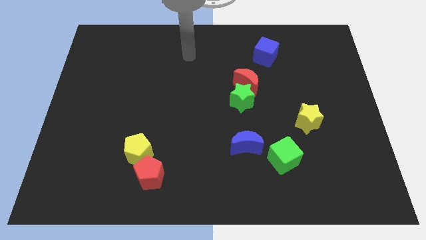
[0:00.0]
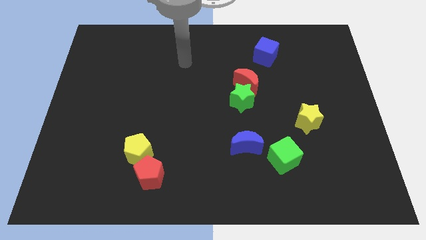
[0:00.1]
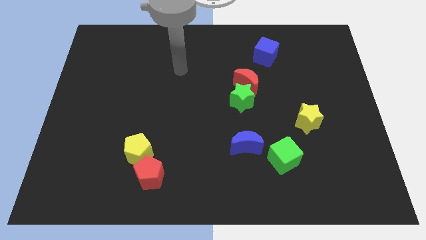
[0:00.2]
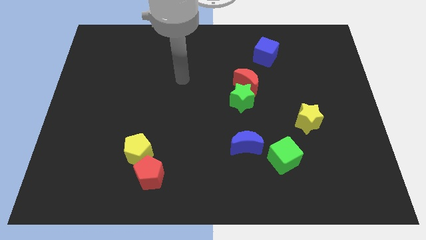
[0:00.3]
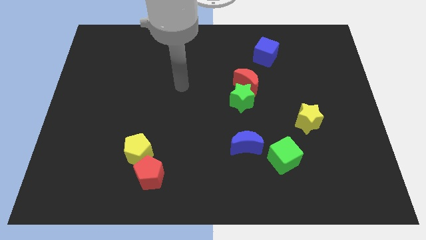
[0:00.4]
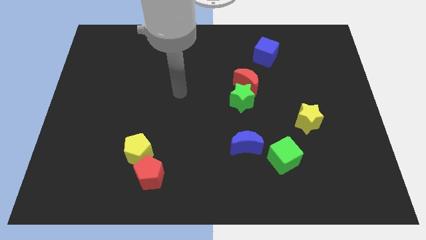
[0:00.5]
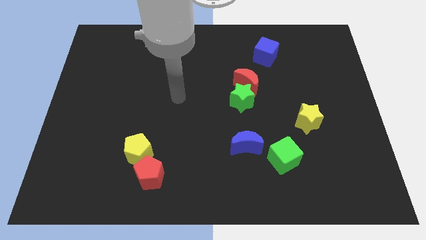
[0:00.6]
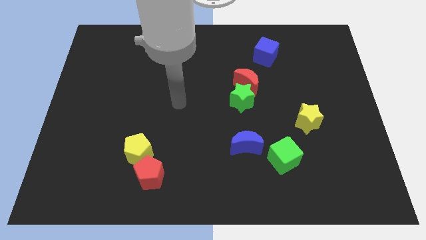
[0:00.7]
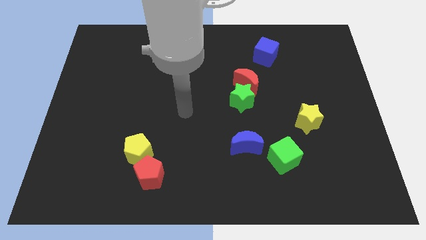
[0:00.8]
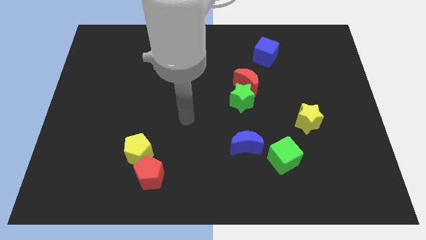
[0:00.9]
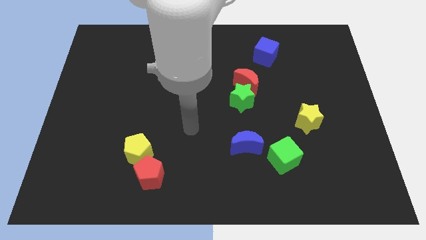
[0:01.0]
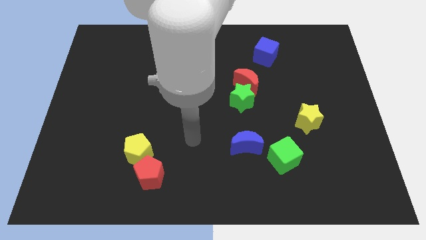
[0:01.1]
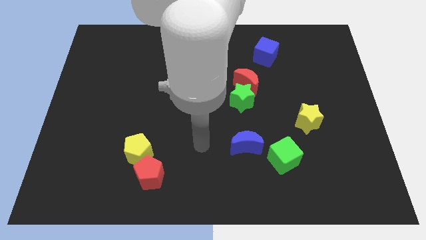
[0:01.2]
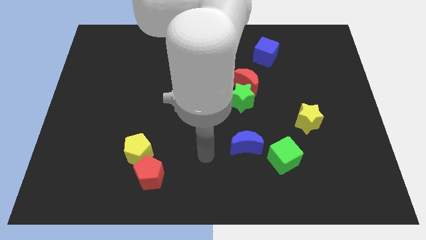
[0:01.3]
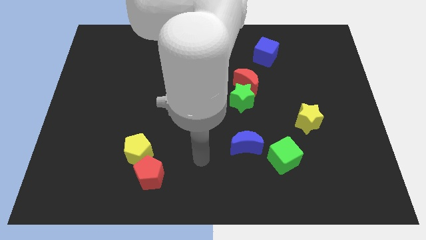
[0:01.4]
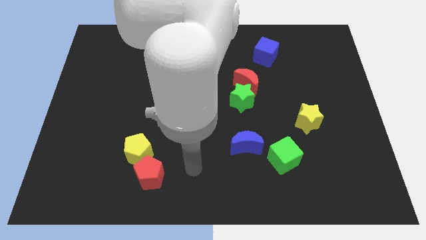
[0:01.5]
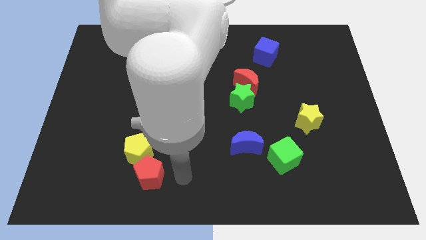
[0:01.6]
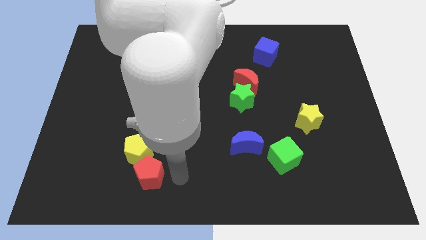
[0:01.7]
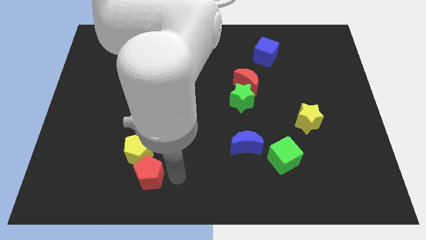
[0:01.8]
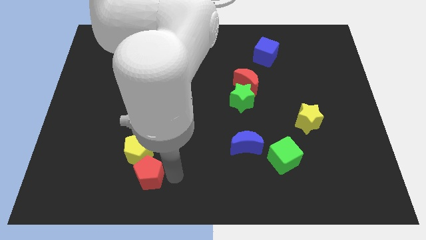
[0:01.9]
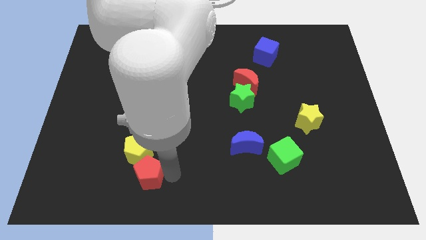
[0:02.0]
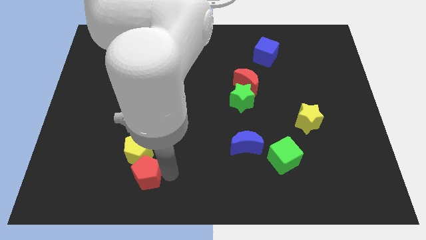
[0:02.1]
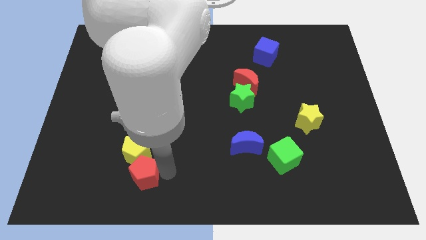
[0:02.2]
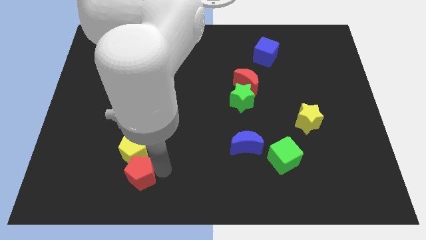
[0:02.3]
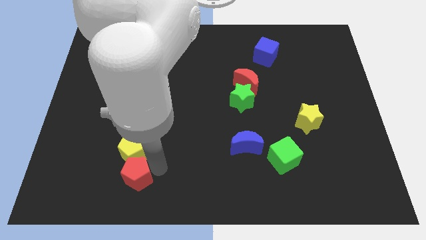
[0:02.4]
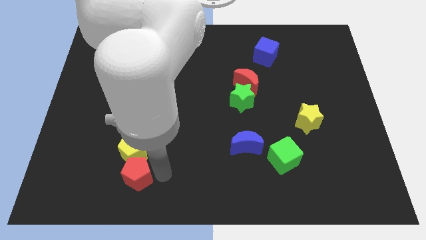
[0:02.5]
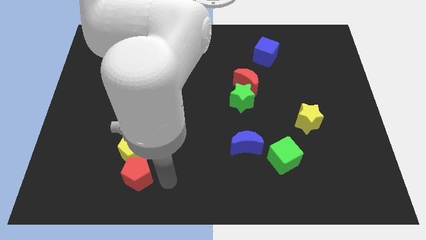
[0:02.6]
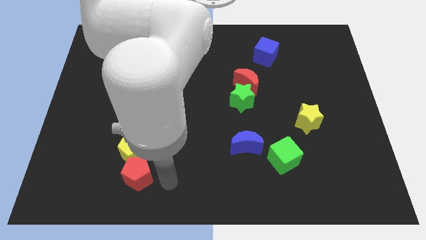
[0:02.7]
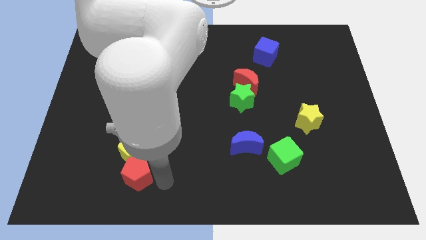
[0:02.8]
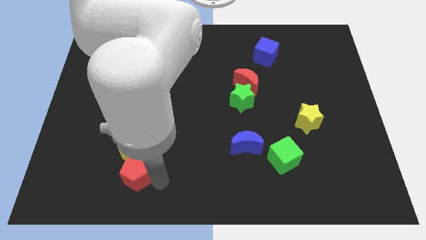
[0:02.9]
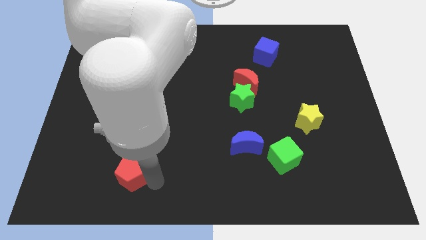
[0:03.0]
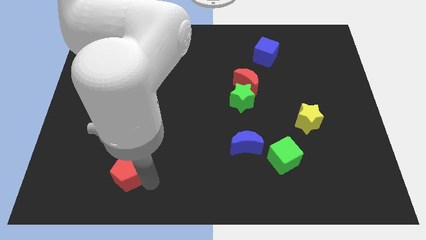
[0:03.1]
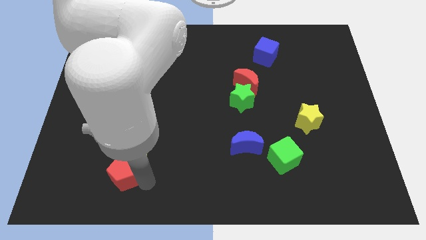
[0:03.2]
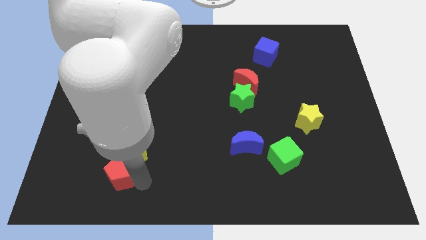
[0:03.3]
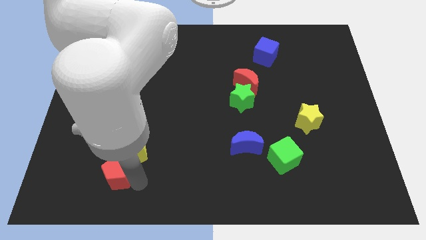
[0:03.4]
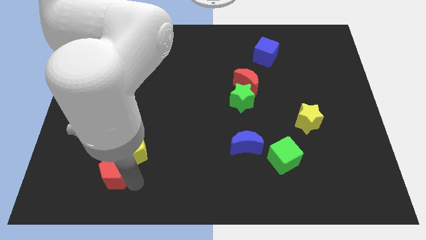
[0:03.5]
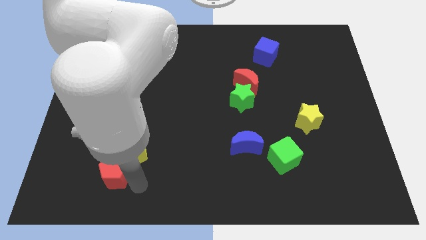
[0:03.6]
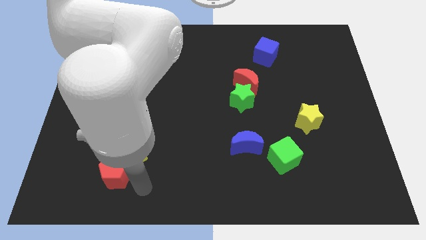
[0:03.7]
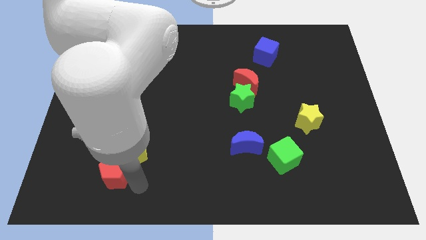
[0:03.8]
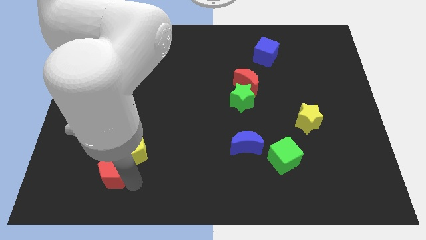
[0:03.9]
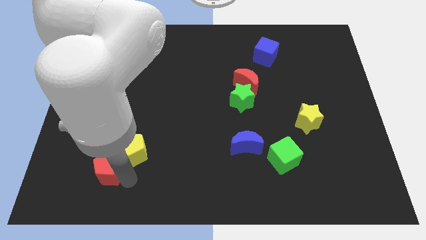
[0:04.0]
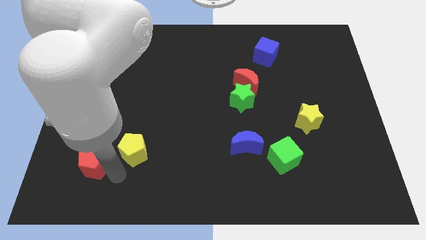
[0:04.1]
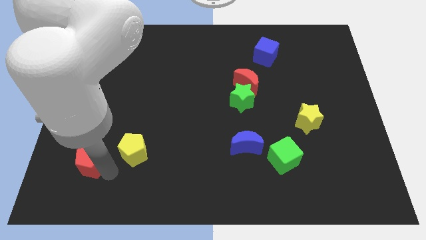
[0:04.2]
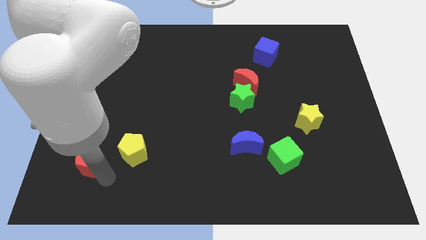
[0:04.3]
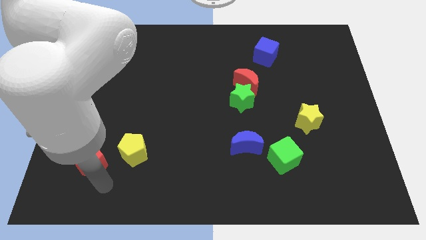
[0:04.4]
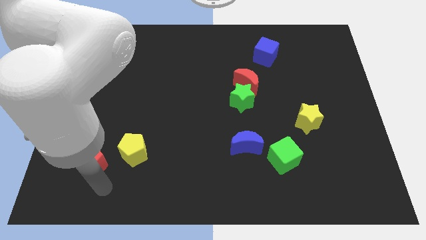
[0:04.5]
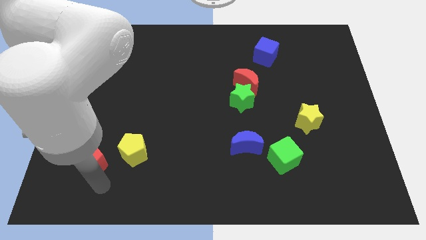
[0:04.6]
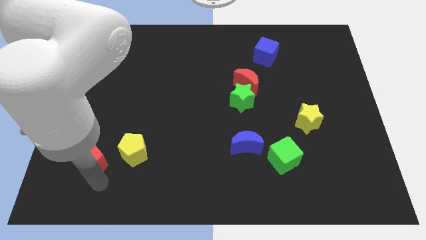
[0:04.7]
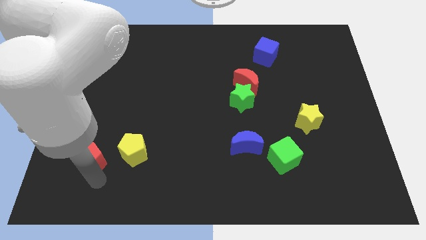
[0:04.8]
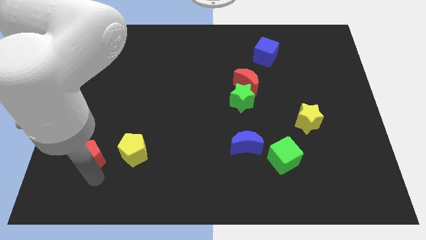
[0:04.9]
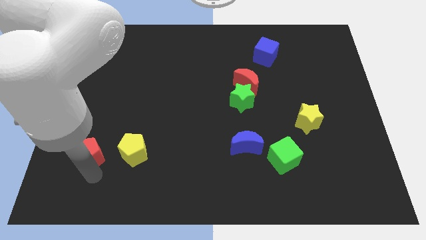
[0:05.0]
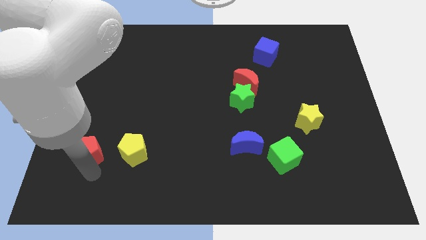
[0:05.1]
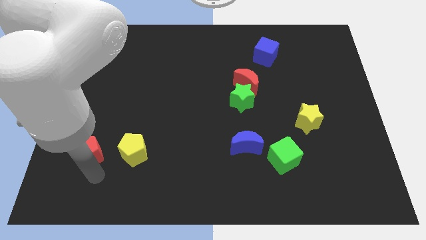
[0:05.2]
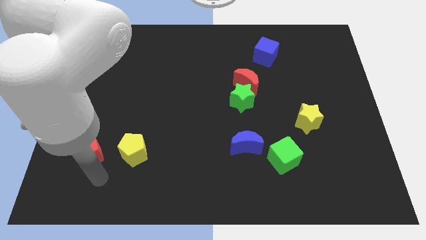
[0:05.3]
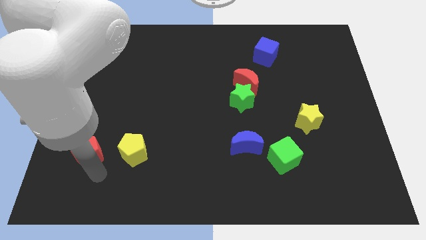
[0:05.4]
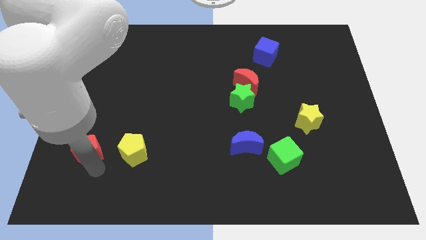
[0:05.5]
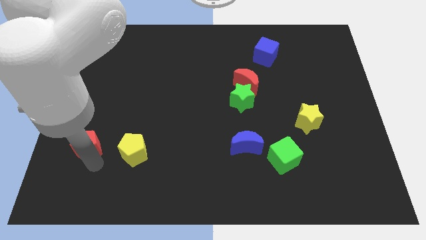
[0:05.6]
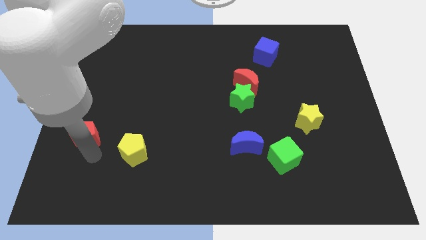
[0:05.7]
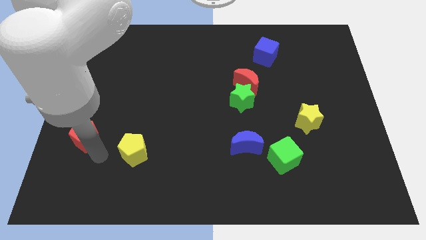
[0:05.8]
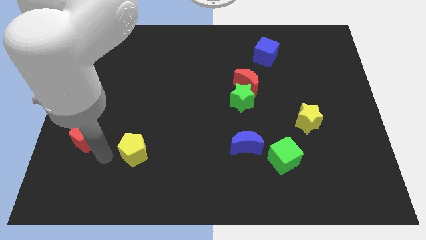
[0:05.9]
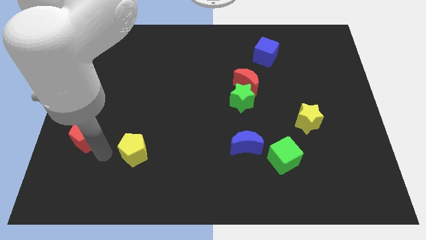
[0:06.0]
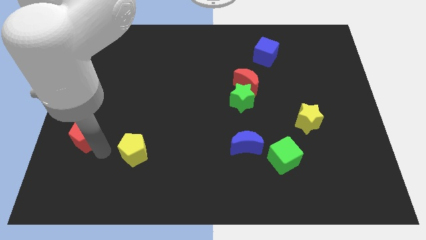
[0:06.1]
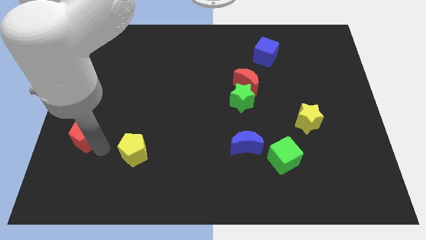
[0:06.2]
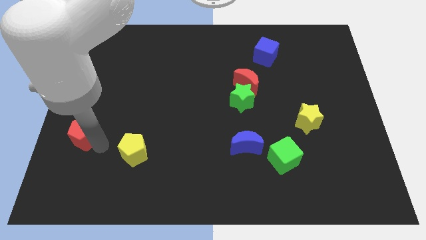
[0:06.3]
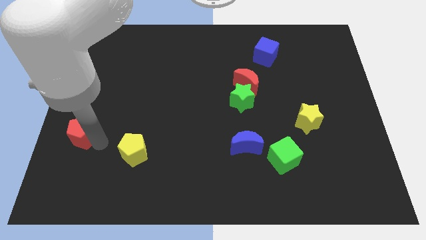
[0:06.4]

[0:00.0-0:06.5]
move the red pentagon to the center left
